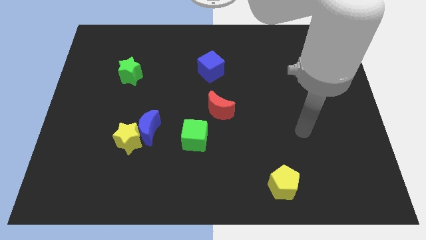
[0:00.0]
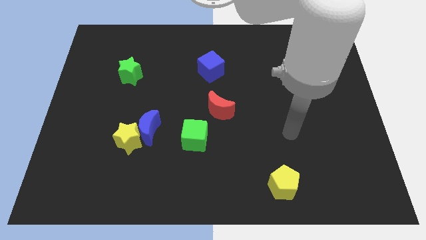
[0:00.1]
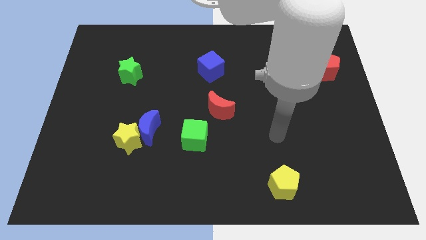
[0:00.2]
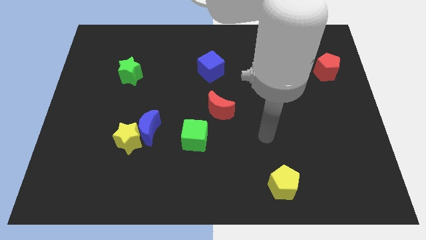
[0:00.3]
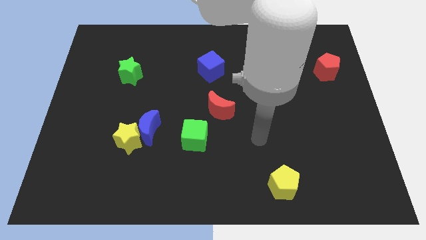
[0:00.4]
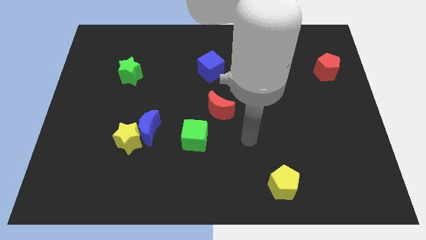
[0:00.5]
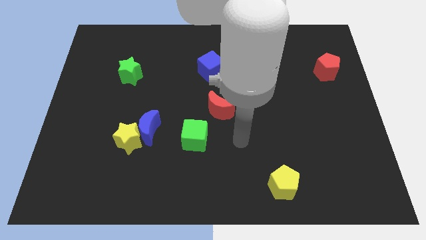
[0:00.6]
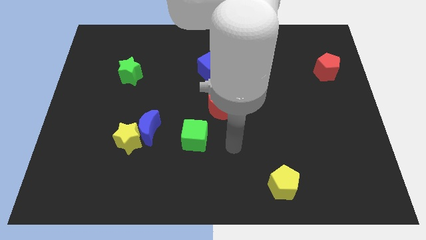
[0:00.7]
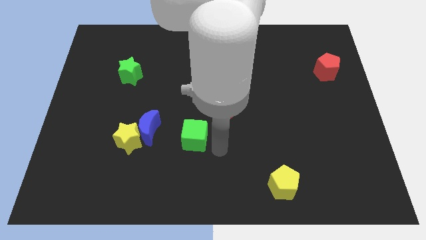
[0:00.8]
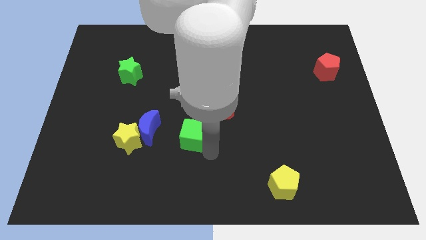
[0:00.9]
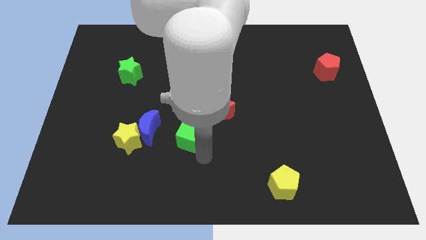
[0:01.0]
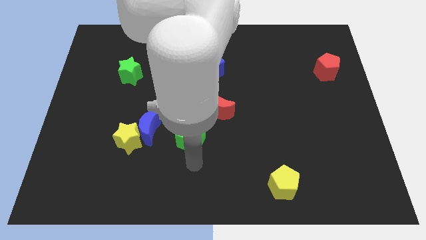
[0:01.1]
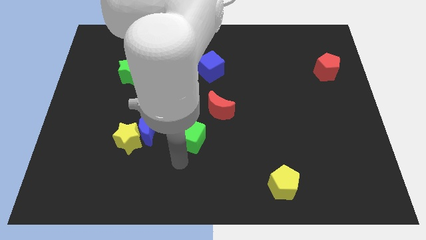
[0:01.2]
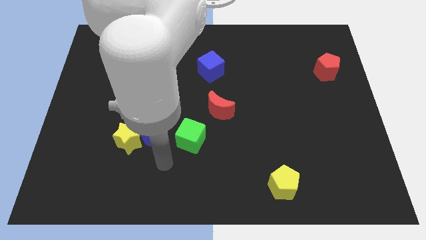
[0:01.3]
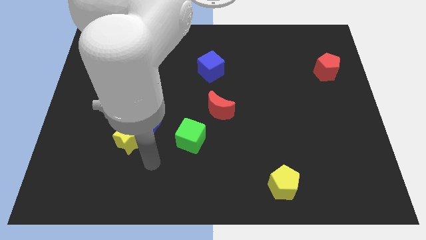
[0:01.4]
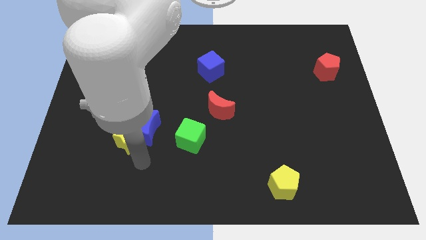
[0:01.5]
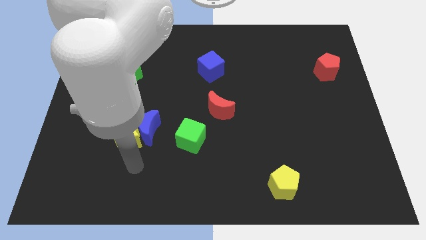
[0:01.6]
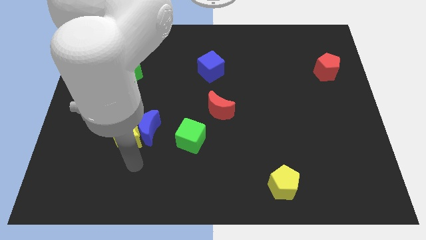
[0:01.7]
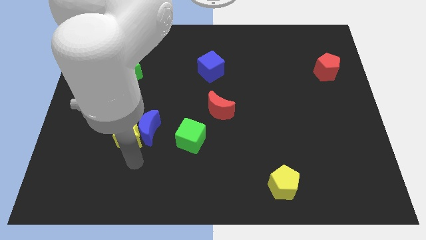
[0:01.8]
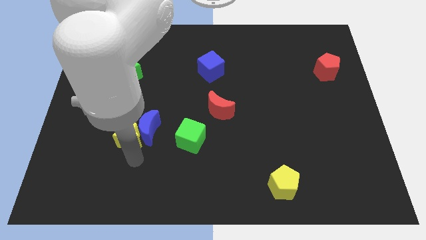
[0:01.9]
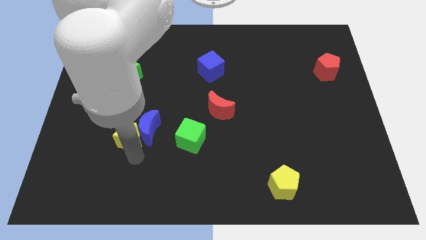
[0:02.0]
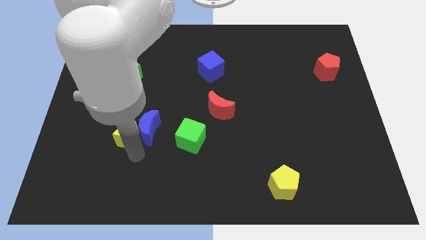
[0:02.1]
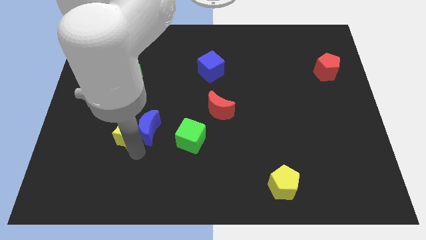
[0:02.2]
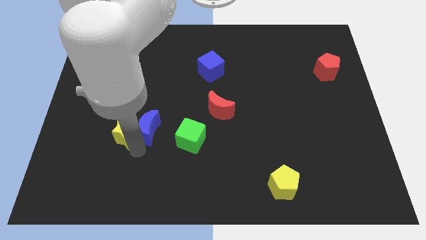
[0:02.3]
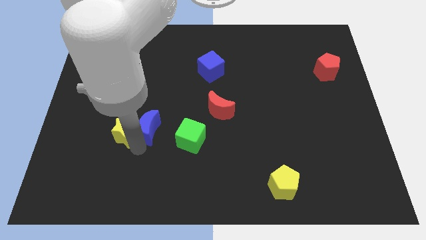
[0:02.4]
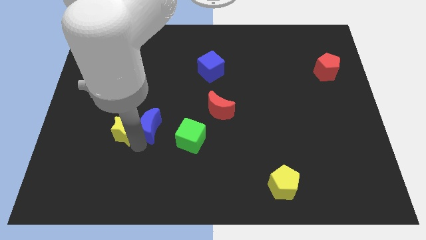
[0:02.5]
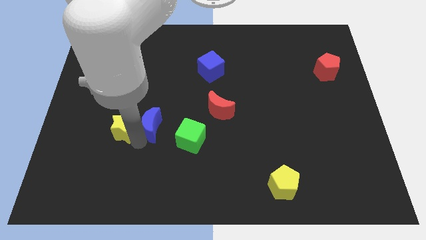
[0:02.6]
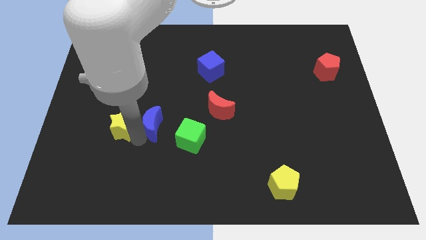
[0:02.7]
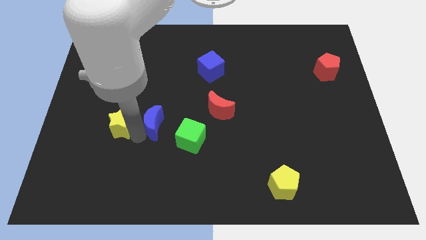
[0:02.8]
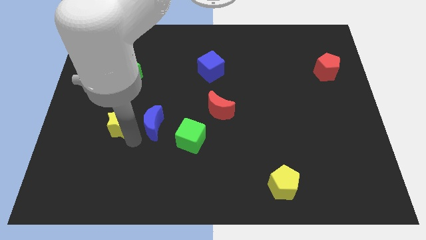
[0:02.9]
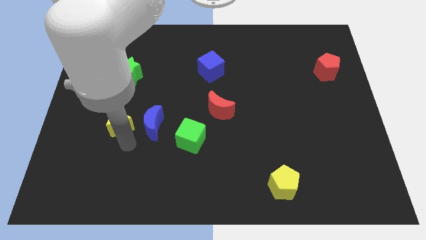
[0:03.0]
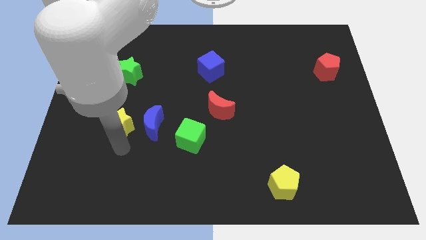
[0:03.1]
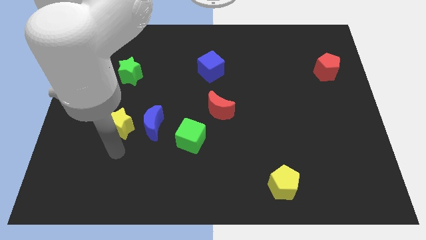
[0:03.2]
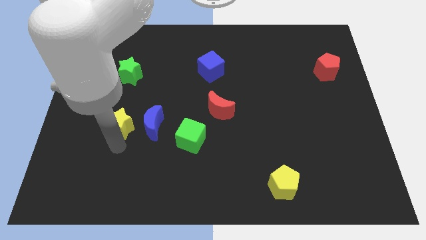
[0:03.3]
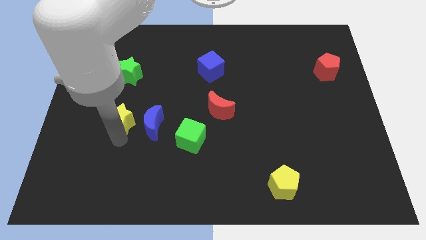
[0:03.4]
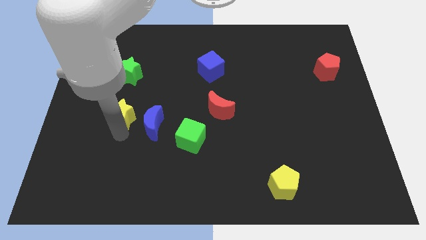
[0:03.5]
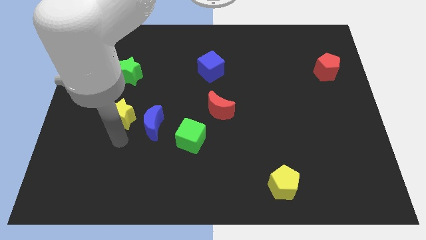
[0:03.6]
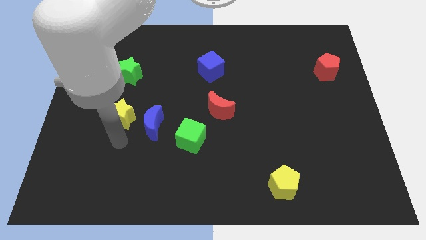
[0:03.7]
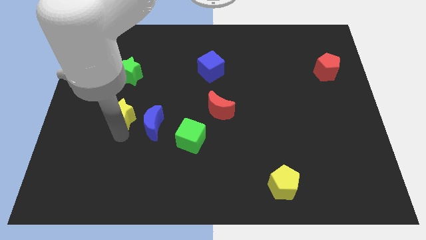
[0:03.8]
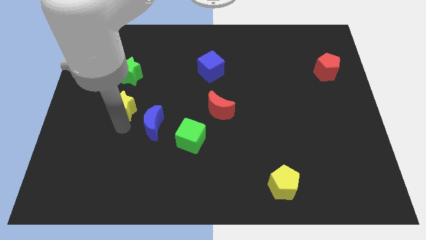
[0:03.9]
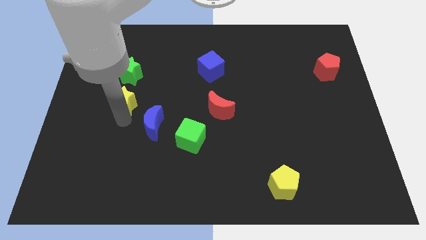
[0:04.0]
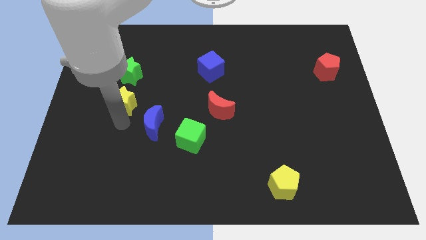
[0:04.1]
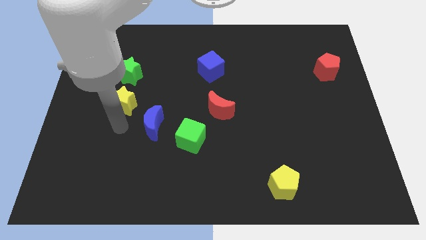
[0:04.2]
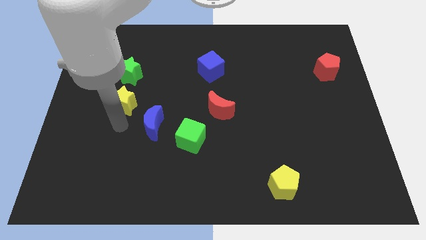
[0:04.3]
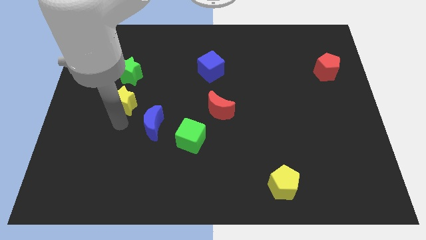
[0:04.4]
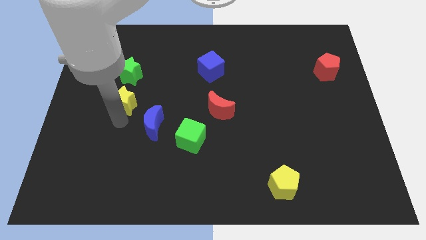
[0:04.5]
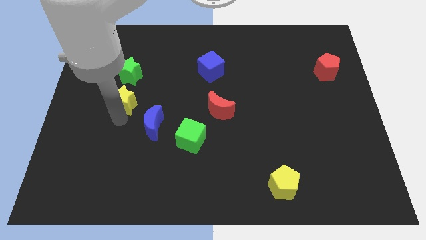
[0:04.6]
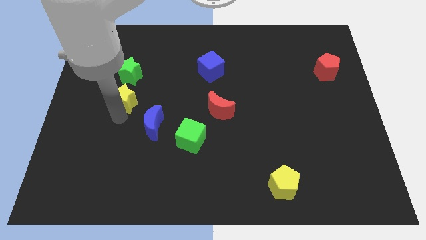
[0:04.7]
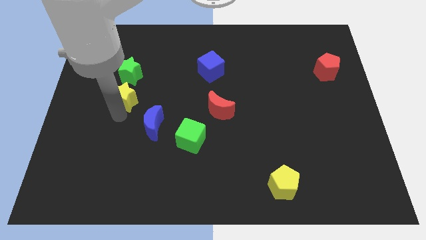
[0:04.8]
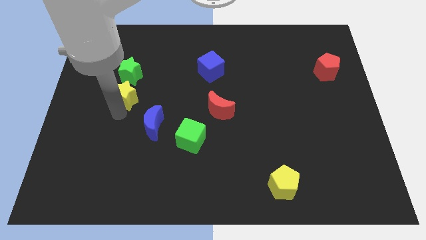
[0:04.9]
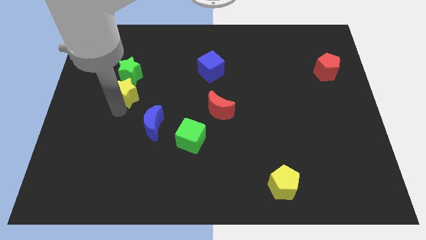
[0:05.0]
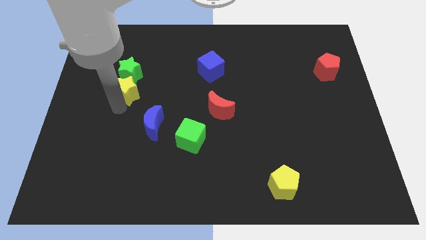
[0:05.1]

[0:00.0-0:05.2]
put the yellow star next to the green star

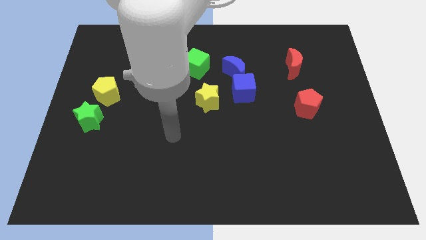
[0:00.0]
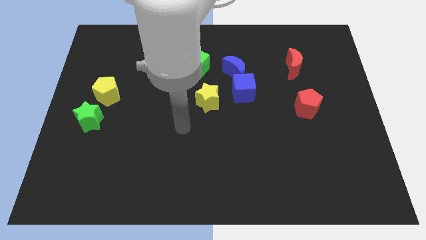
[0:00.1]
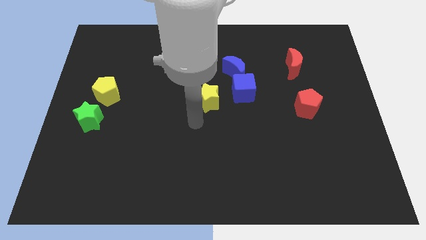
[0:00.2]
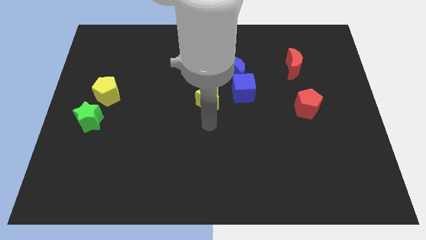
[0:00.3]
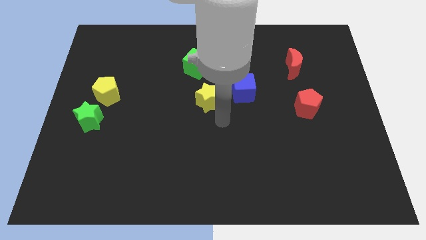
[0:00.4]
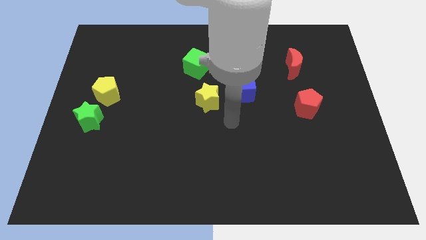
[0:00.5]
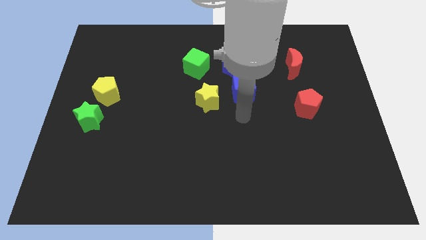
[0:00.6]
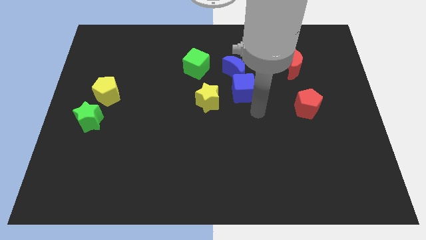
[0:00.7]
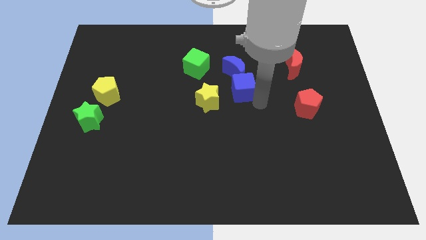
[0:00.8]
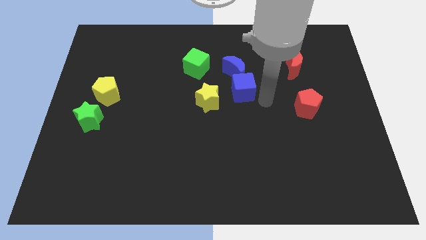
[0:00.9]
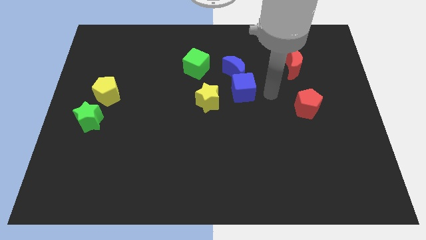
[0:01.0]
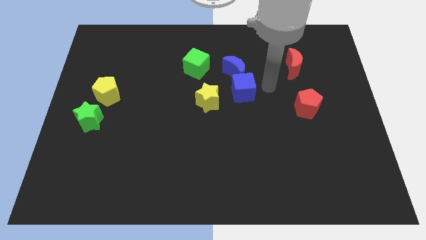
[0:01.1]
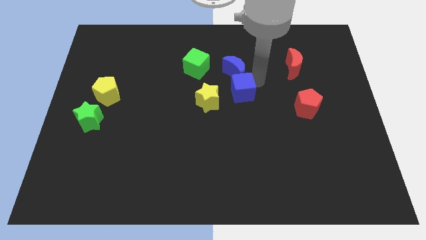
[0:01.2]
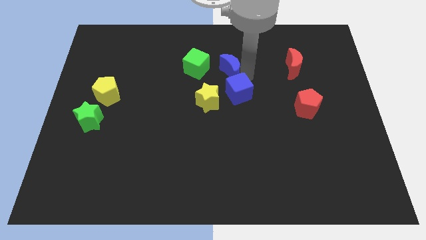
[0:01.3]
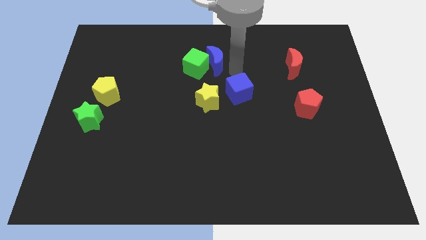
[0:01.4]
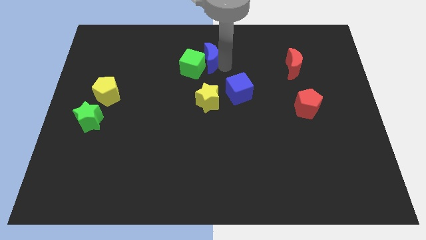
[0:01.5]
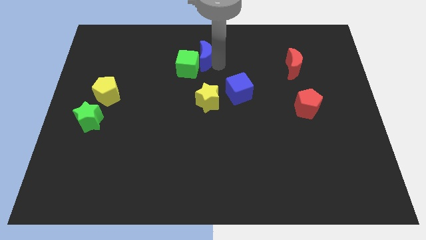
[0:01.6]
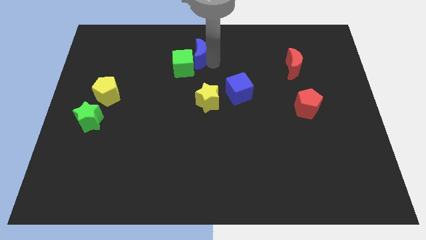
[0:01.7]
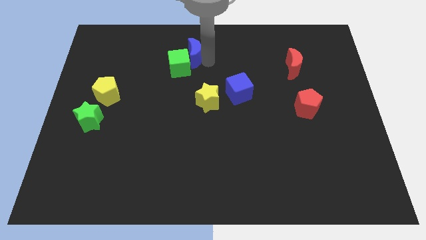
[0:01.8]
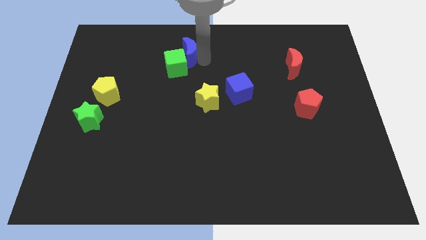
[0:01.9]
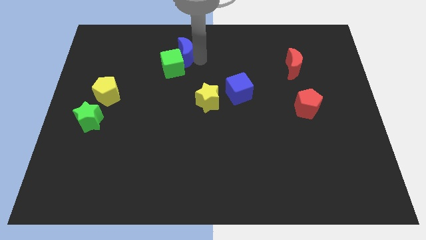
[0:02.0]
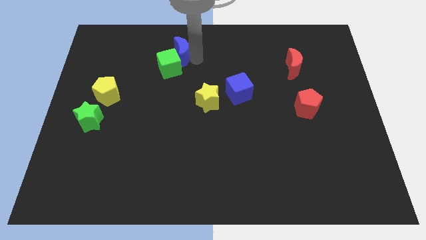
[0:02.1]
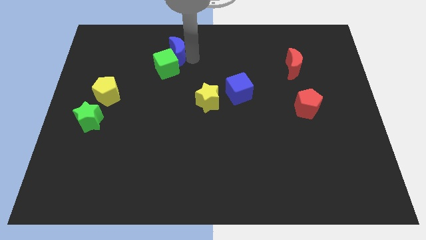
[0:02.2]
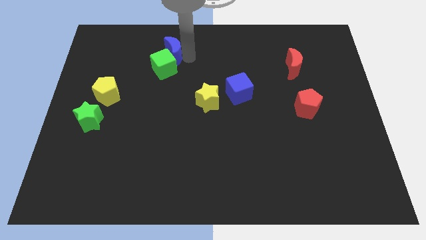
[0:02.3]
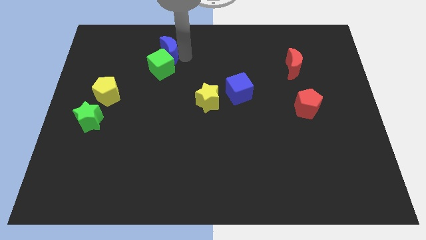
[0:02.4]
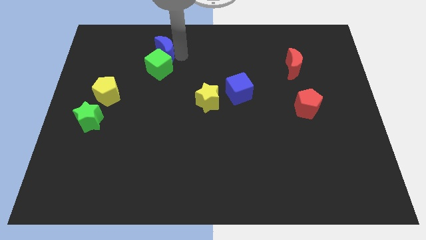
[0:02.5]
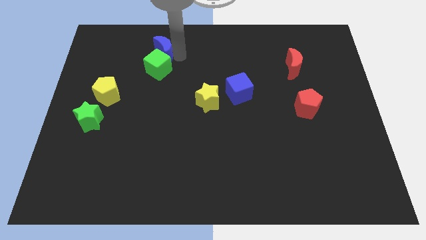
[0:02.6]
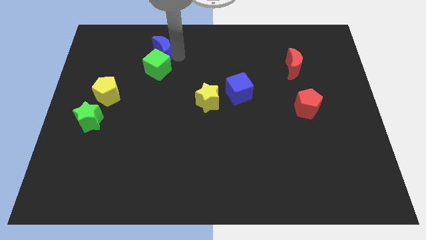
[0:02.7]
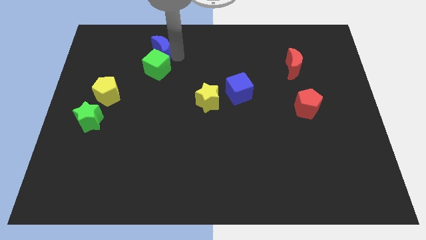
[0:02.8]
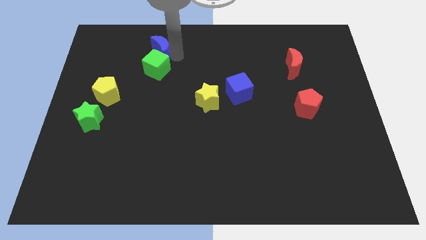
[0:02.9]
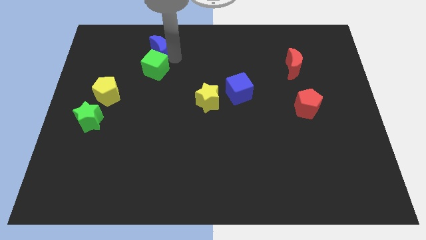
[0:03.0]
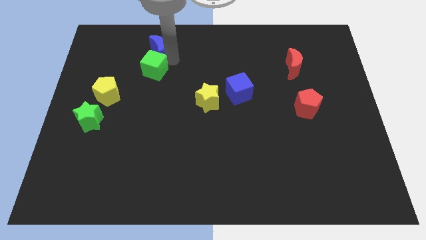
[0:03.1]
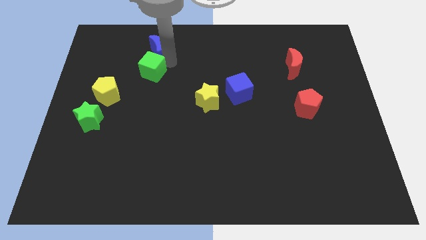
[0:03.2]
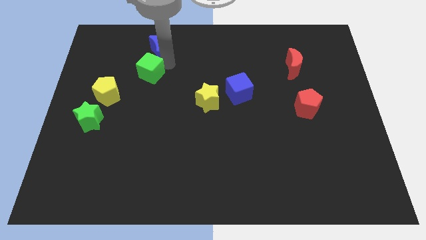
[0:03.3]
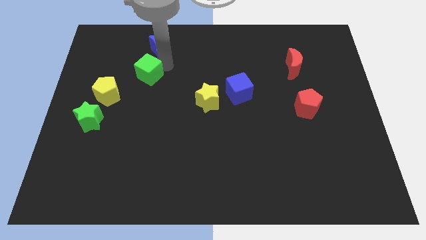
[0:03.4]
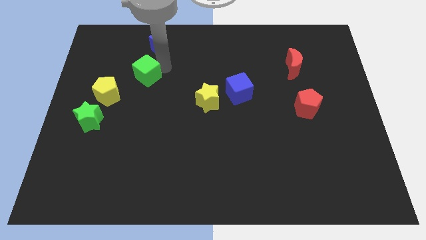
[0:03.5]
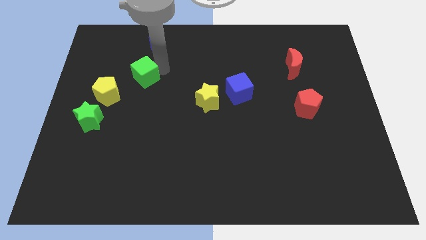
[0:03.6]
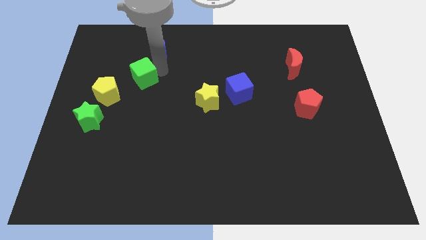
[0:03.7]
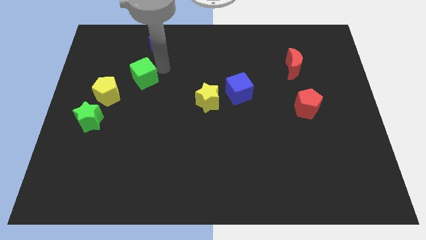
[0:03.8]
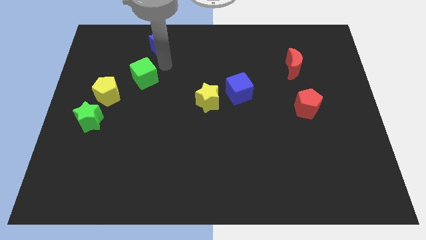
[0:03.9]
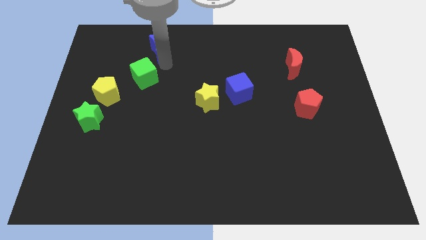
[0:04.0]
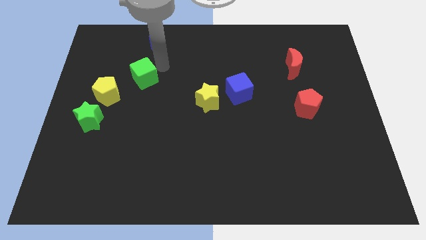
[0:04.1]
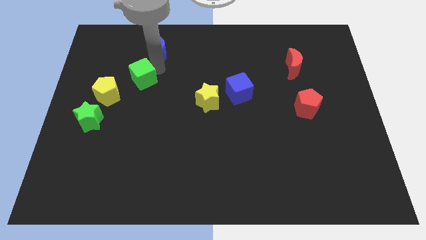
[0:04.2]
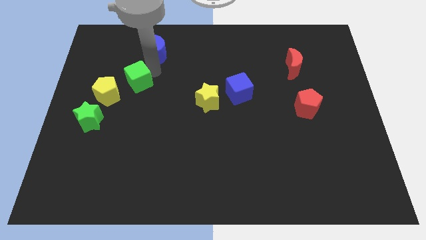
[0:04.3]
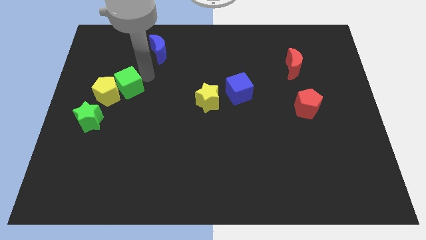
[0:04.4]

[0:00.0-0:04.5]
slide the green cube close to the yellow pentagon
